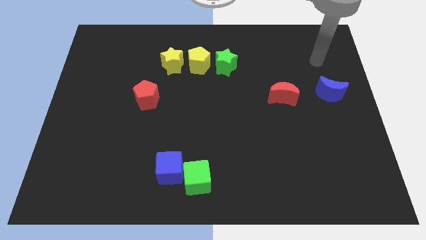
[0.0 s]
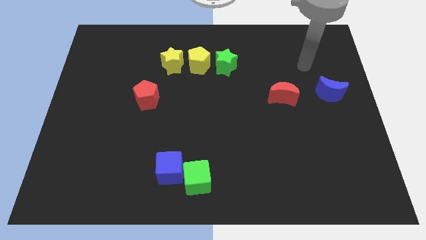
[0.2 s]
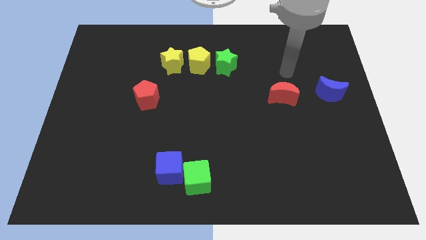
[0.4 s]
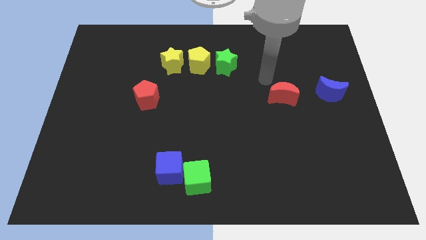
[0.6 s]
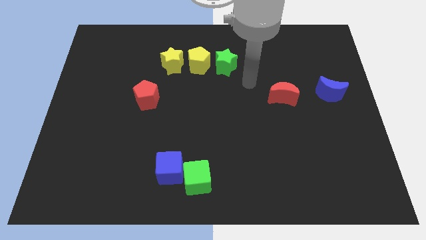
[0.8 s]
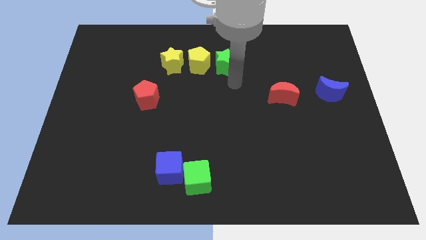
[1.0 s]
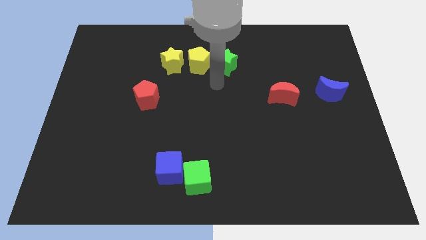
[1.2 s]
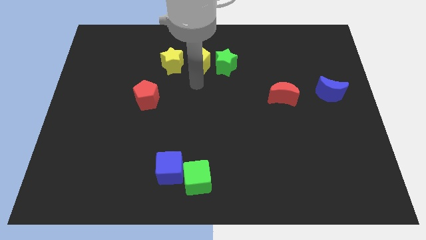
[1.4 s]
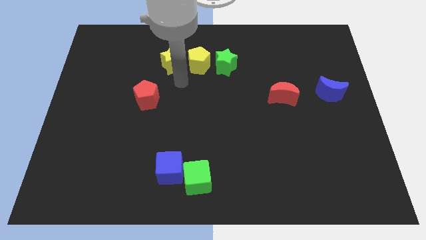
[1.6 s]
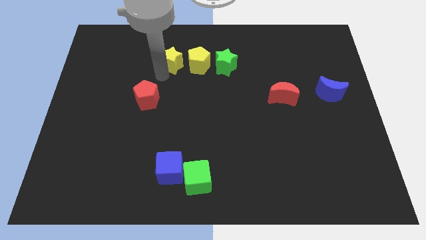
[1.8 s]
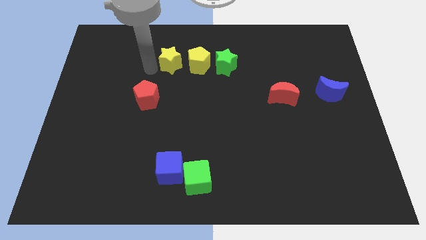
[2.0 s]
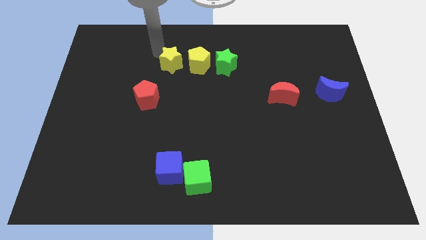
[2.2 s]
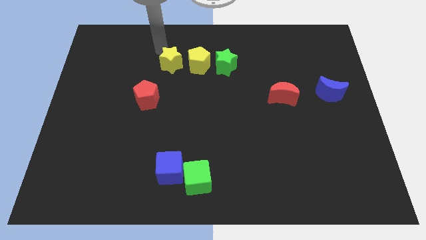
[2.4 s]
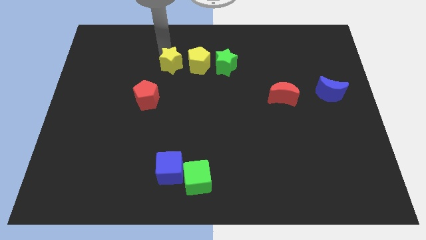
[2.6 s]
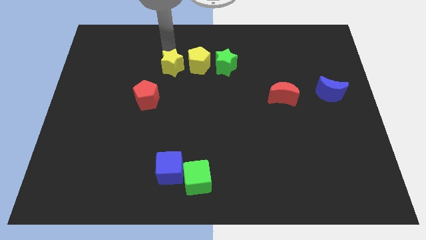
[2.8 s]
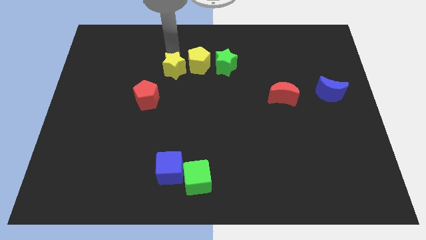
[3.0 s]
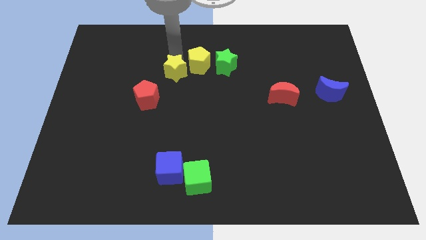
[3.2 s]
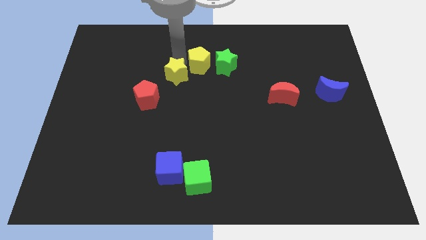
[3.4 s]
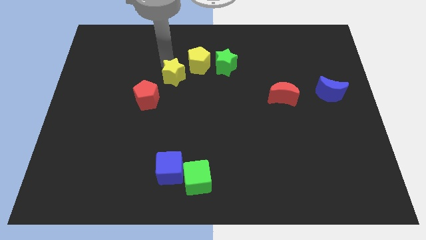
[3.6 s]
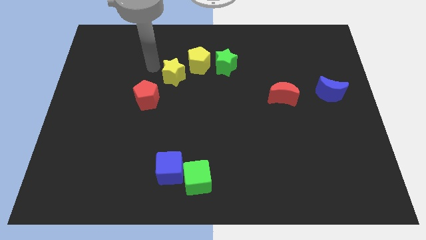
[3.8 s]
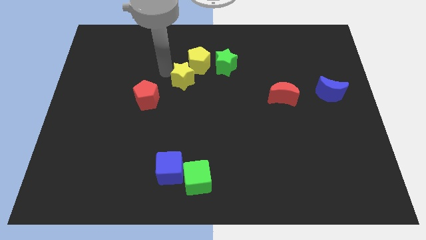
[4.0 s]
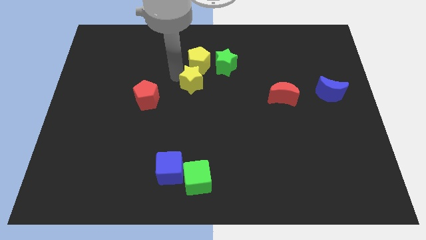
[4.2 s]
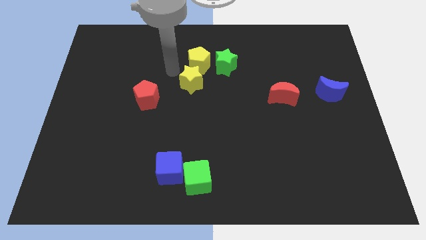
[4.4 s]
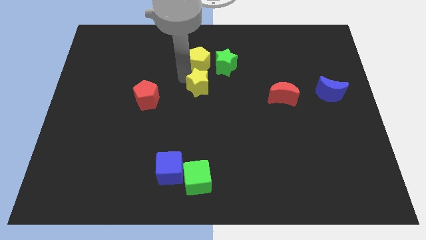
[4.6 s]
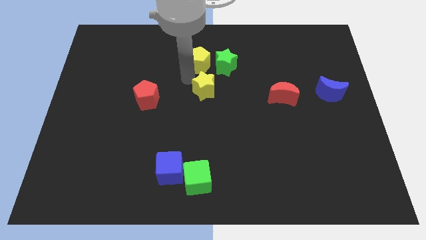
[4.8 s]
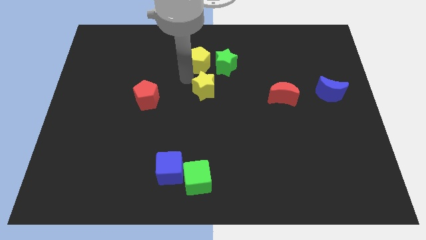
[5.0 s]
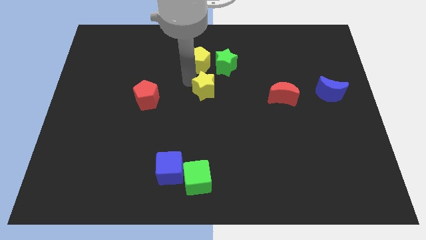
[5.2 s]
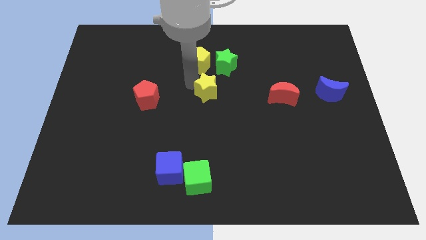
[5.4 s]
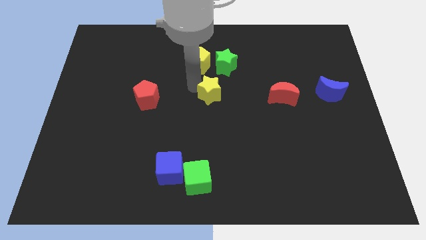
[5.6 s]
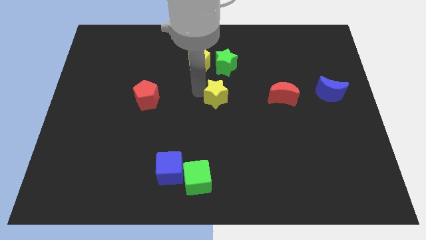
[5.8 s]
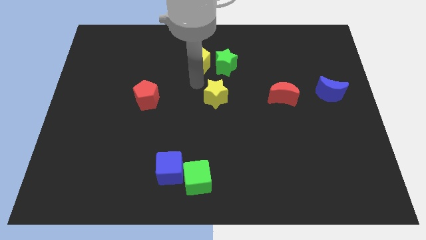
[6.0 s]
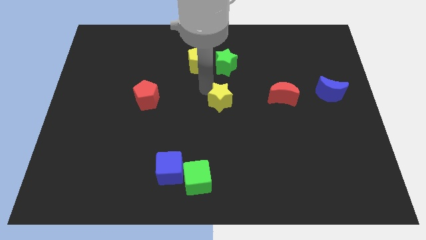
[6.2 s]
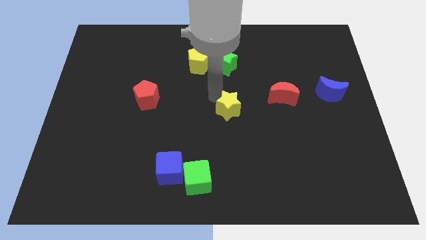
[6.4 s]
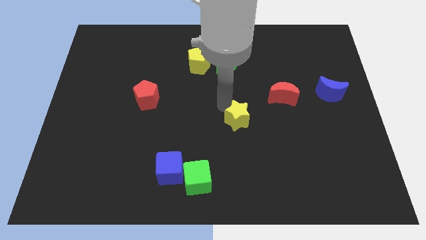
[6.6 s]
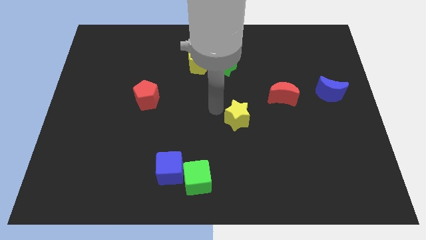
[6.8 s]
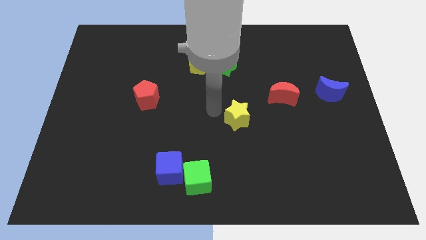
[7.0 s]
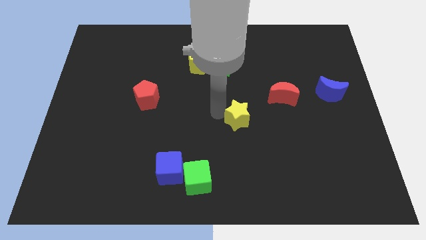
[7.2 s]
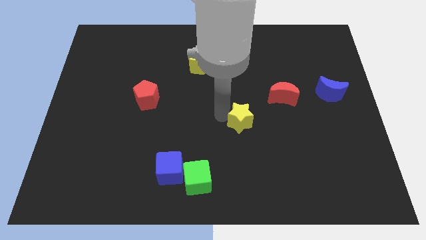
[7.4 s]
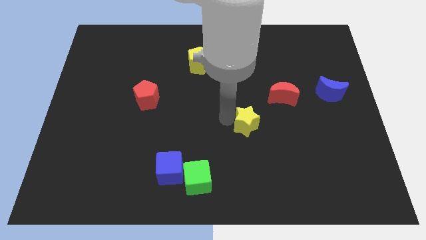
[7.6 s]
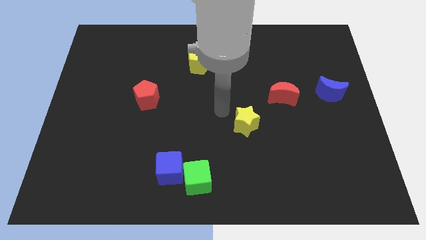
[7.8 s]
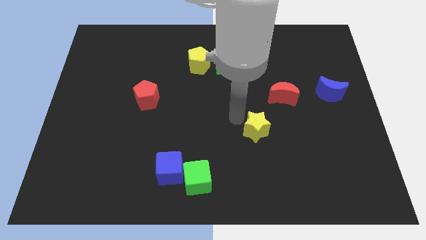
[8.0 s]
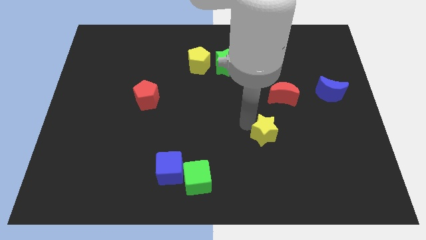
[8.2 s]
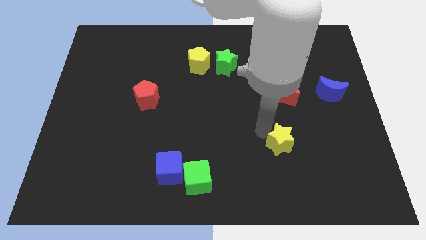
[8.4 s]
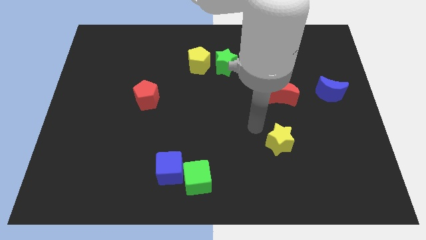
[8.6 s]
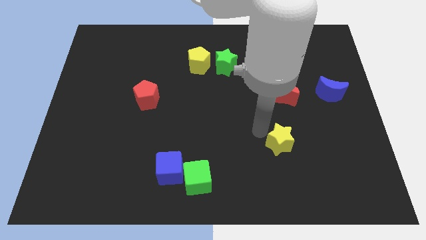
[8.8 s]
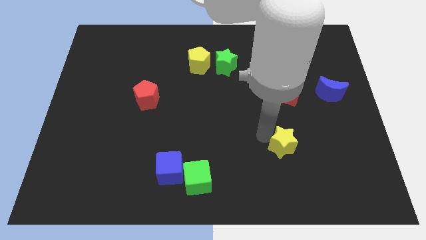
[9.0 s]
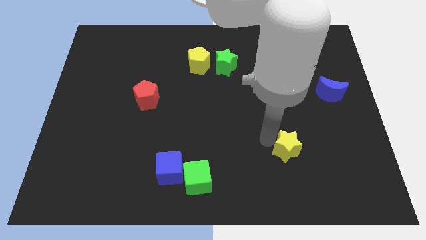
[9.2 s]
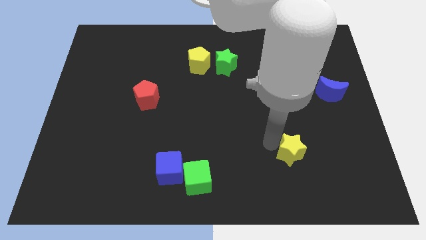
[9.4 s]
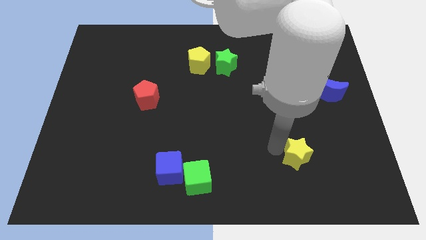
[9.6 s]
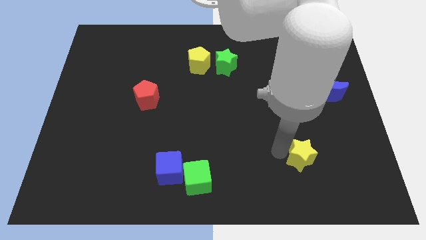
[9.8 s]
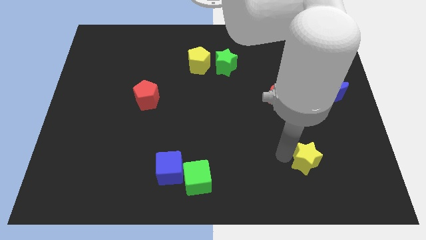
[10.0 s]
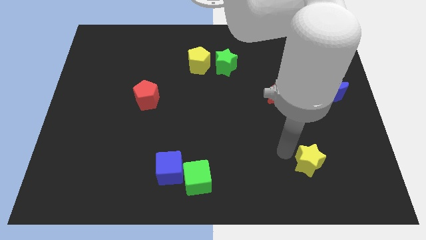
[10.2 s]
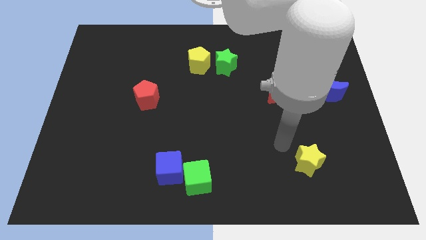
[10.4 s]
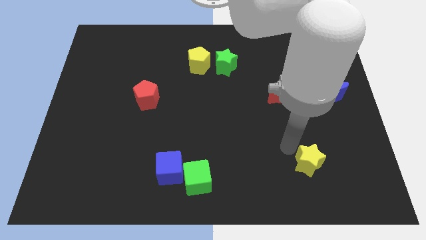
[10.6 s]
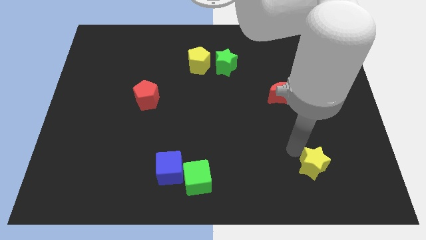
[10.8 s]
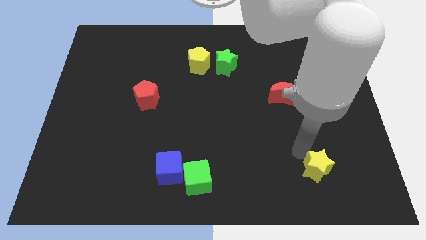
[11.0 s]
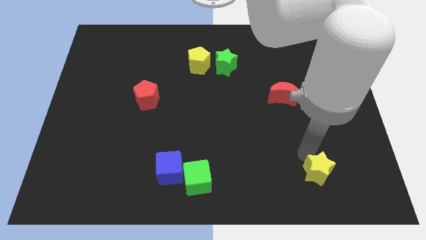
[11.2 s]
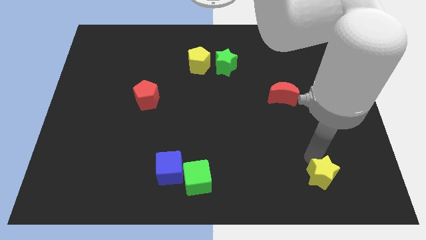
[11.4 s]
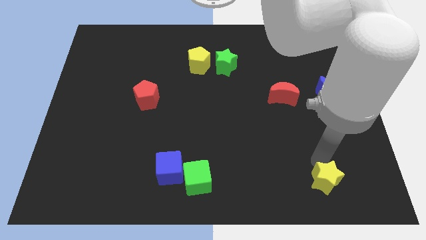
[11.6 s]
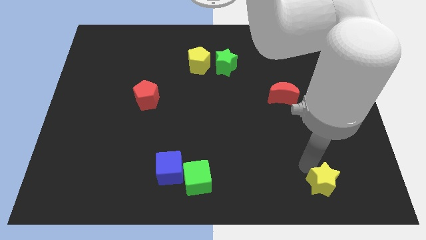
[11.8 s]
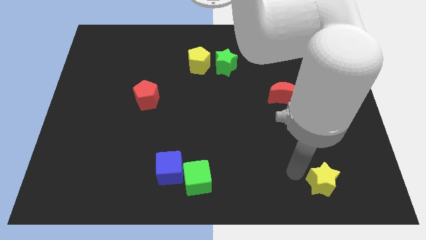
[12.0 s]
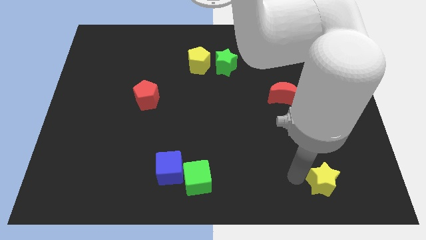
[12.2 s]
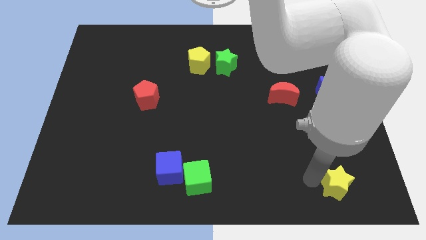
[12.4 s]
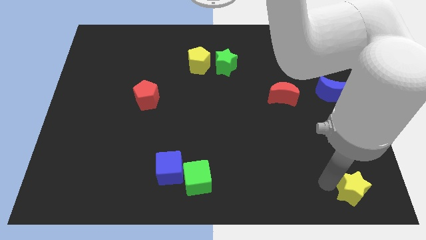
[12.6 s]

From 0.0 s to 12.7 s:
slide the yellow star to the bottom right of the board

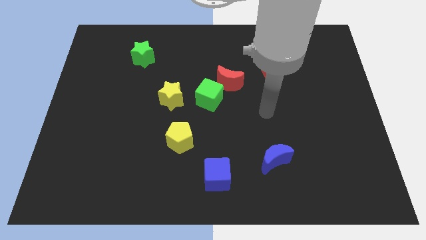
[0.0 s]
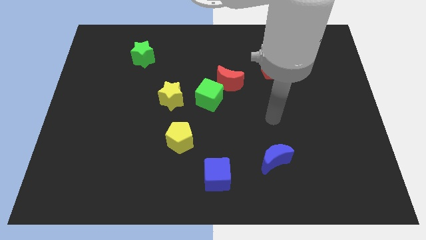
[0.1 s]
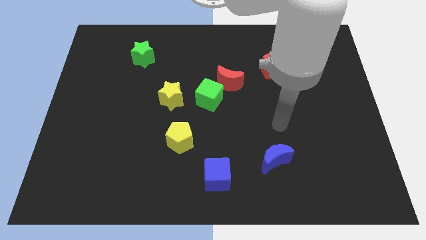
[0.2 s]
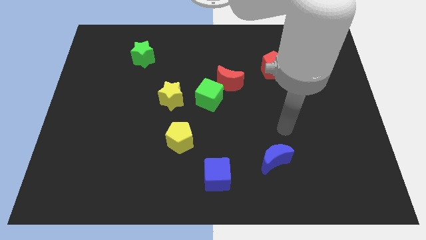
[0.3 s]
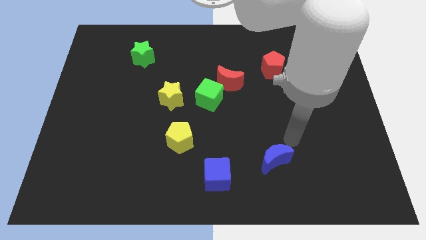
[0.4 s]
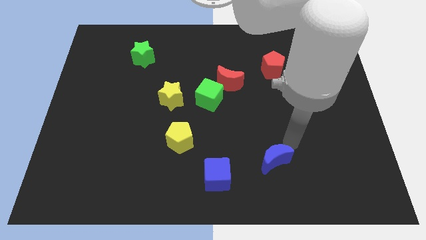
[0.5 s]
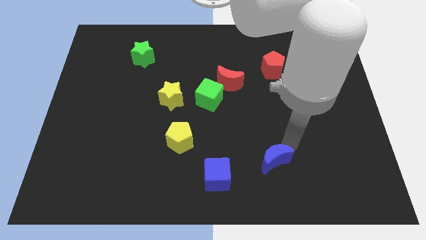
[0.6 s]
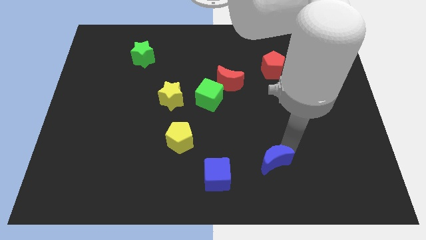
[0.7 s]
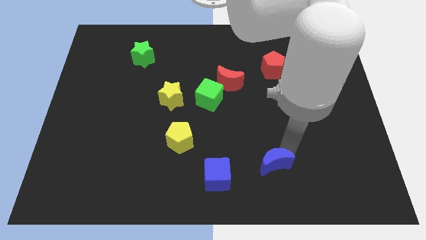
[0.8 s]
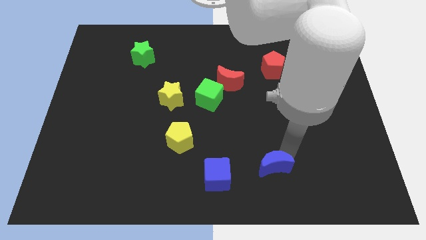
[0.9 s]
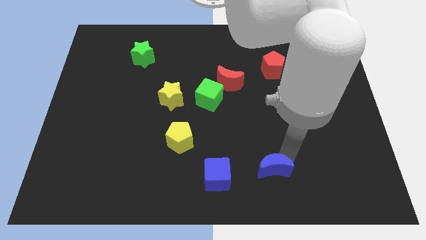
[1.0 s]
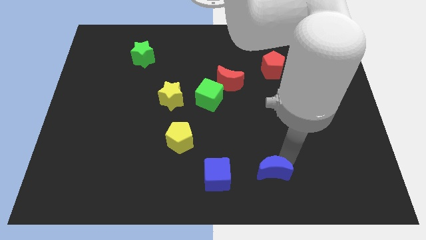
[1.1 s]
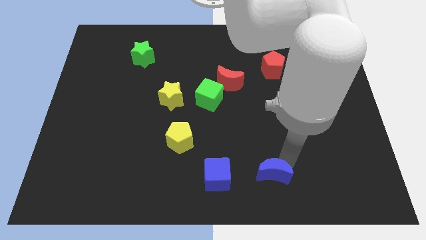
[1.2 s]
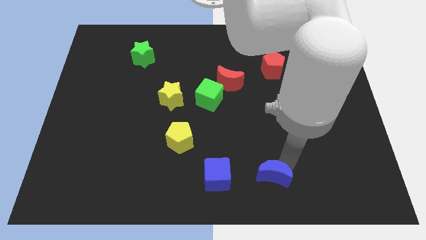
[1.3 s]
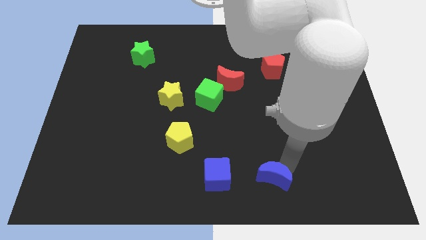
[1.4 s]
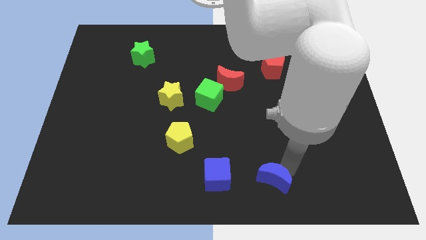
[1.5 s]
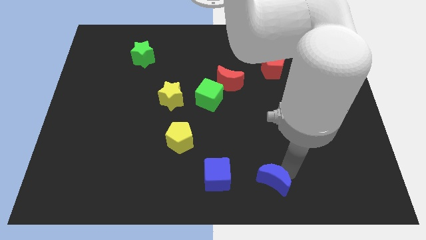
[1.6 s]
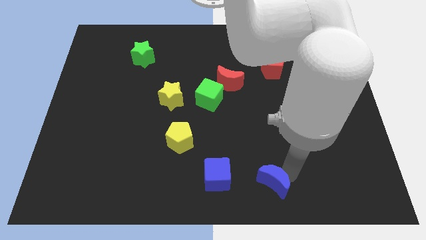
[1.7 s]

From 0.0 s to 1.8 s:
put the blue moon to the bottom
